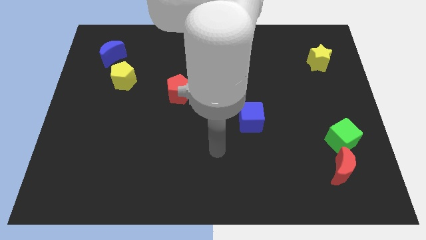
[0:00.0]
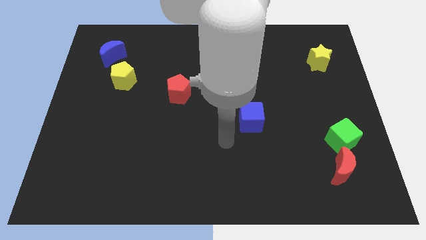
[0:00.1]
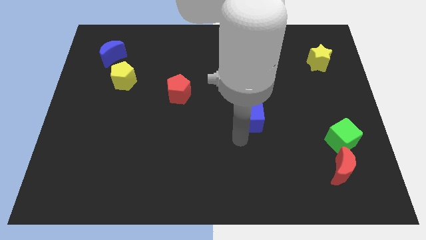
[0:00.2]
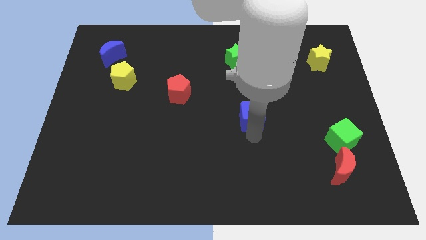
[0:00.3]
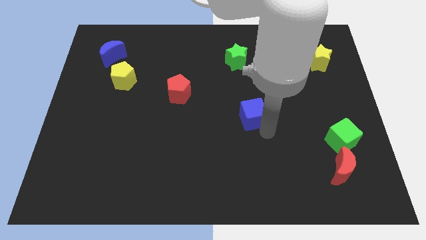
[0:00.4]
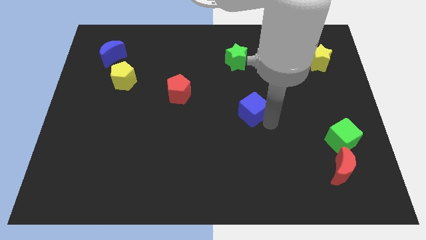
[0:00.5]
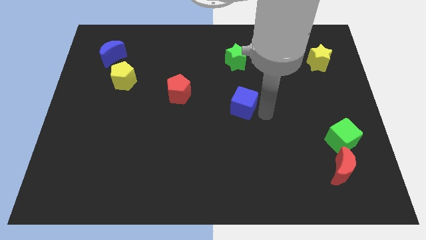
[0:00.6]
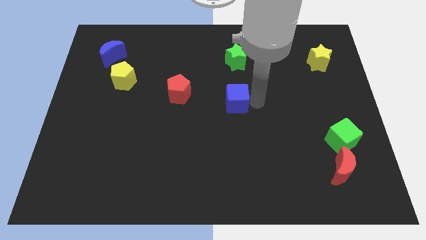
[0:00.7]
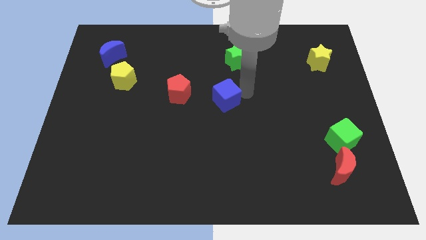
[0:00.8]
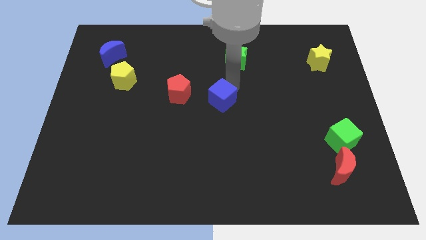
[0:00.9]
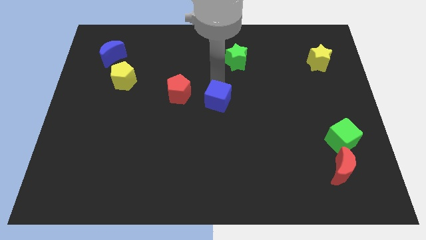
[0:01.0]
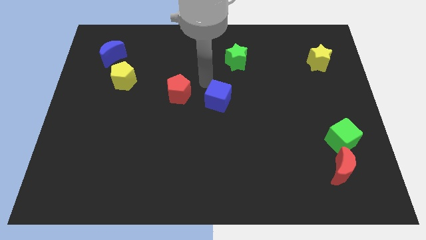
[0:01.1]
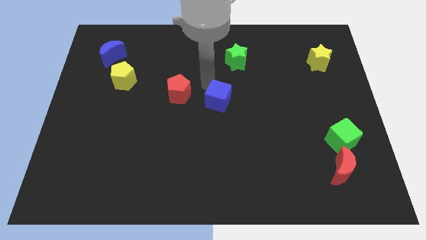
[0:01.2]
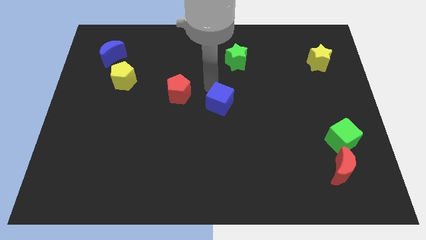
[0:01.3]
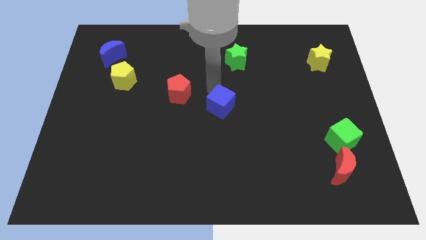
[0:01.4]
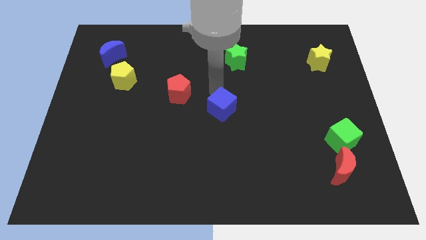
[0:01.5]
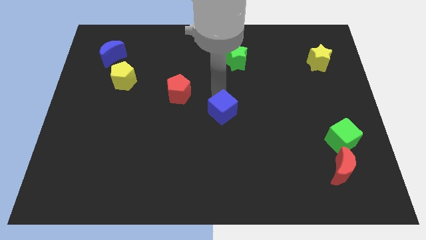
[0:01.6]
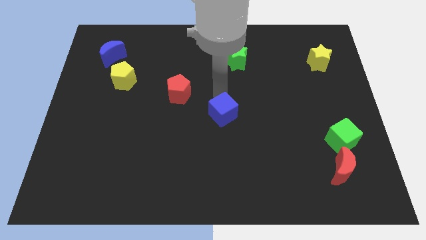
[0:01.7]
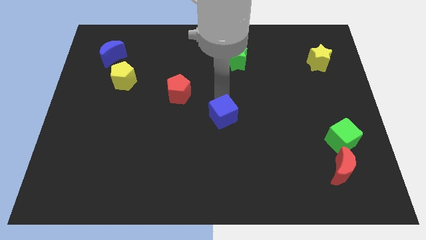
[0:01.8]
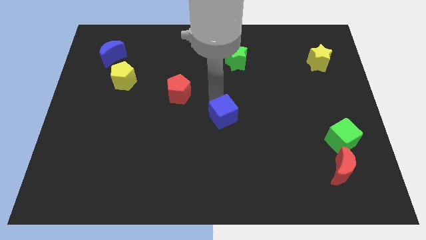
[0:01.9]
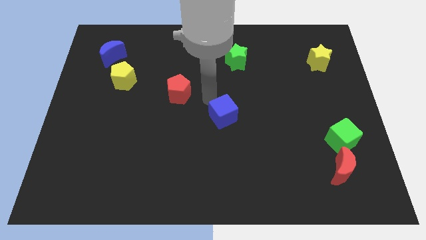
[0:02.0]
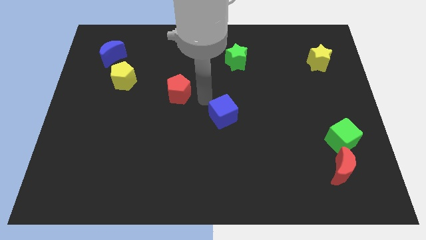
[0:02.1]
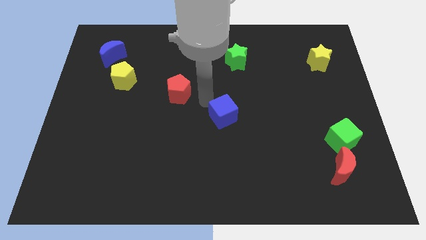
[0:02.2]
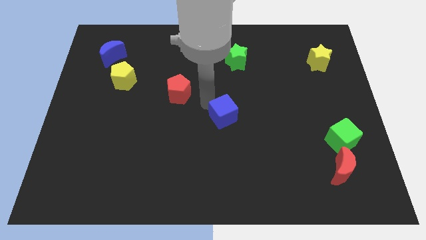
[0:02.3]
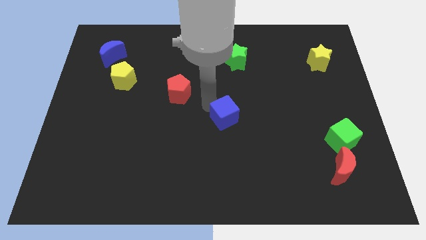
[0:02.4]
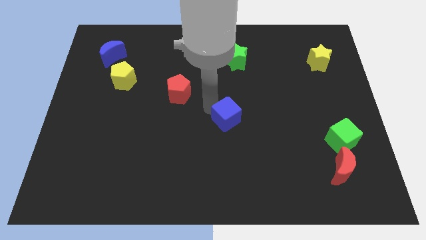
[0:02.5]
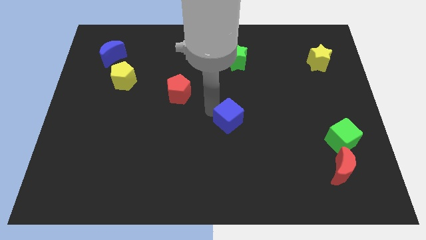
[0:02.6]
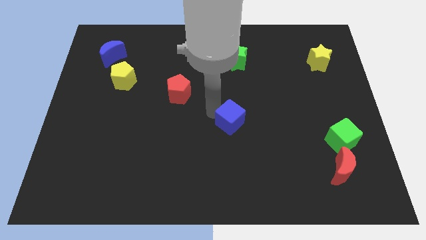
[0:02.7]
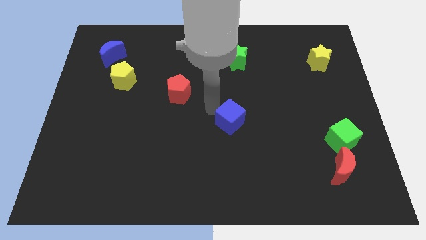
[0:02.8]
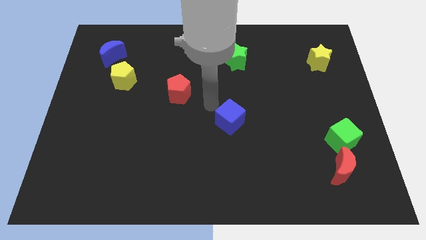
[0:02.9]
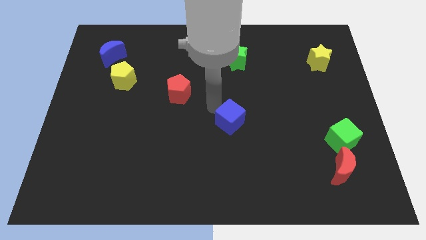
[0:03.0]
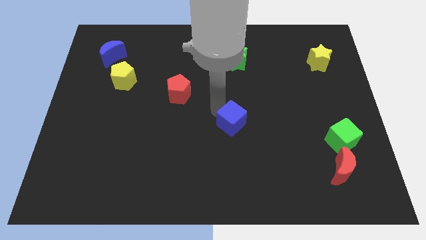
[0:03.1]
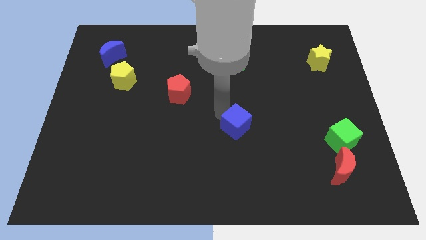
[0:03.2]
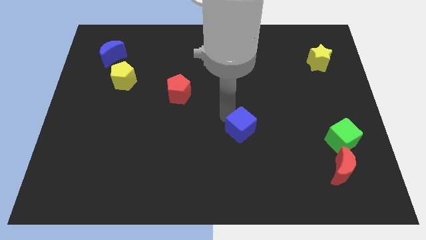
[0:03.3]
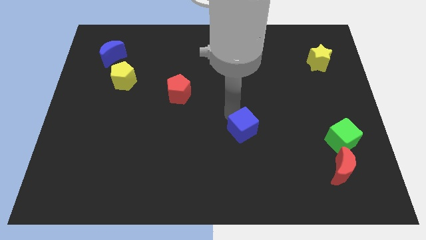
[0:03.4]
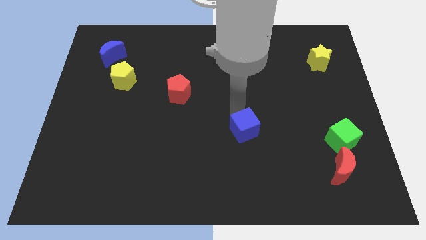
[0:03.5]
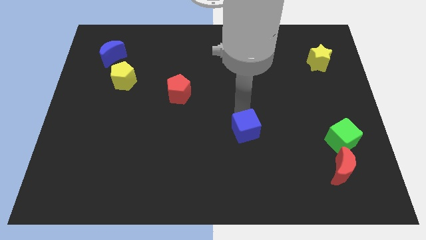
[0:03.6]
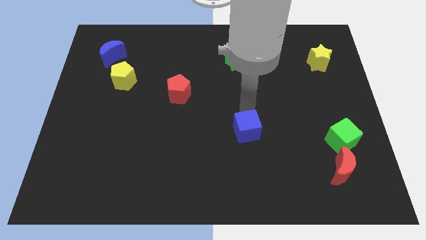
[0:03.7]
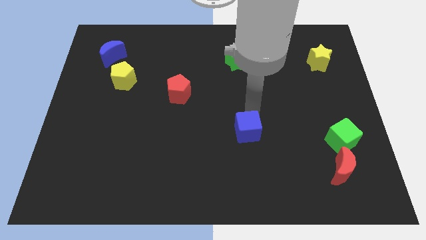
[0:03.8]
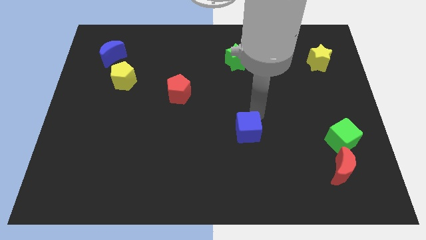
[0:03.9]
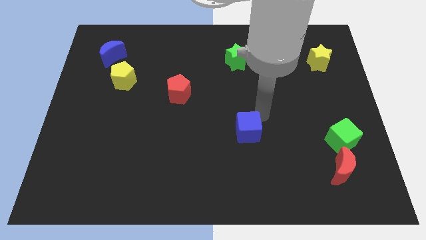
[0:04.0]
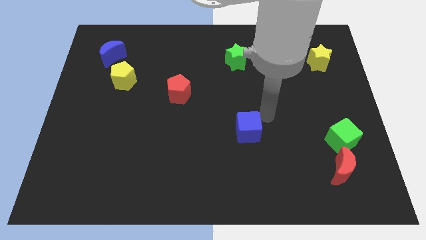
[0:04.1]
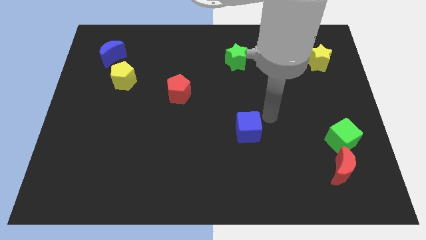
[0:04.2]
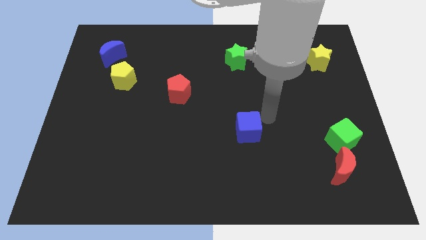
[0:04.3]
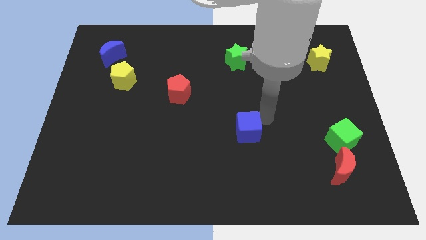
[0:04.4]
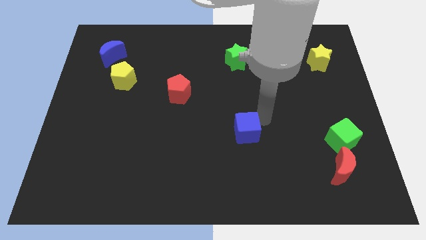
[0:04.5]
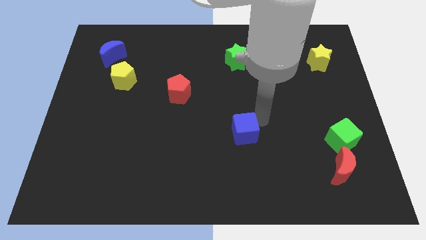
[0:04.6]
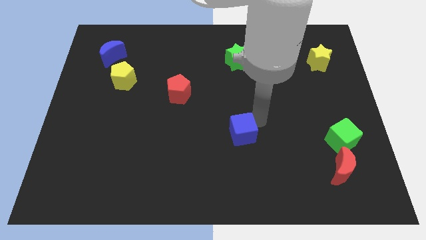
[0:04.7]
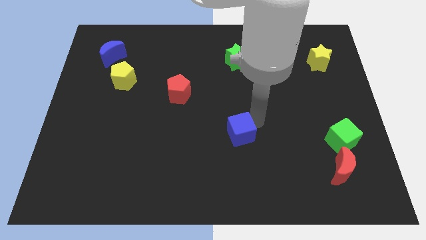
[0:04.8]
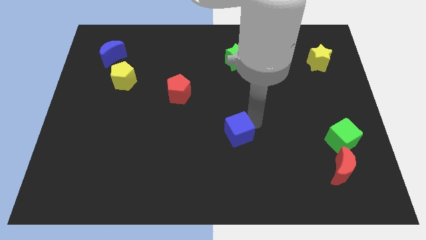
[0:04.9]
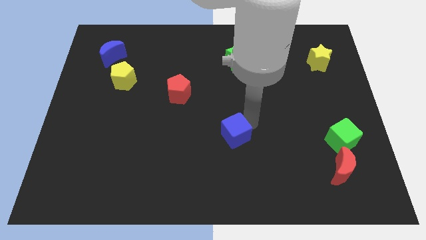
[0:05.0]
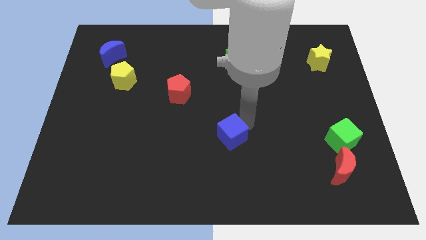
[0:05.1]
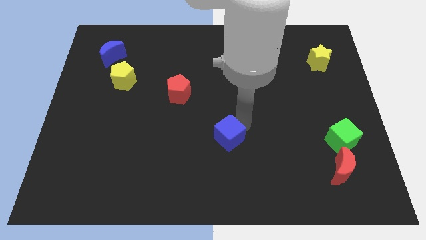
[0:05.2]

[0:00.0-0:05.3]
push the blue cube diagonally downwards and to the left a little bit

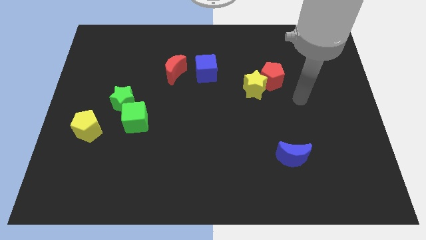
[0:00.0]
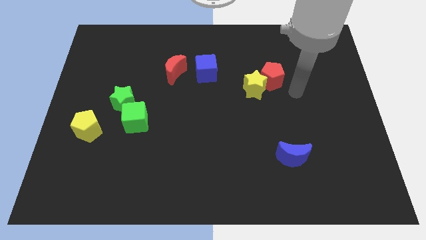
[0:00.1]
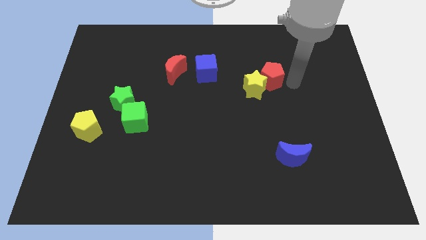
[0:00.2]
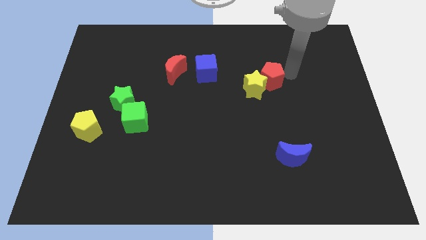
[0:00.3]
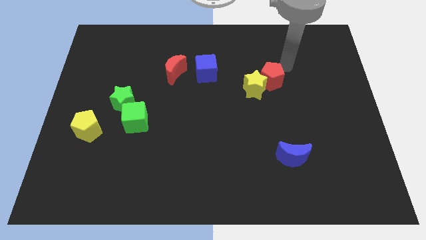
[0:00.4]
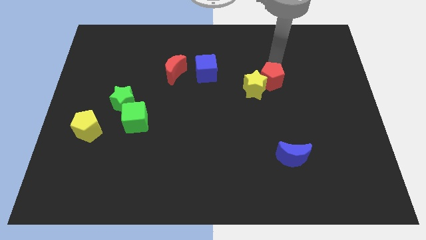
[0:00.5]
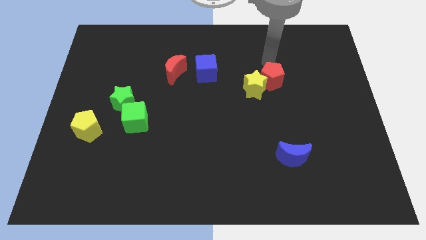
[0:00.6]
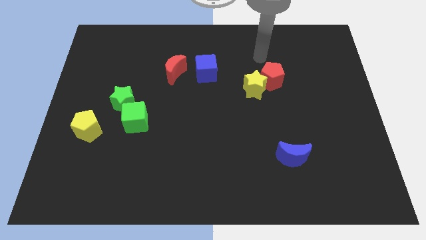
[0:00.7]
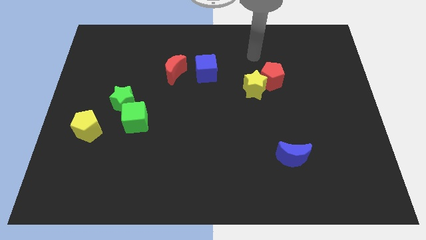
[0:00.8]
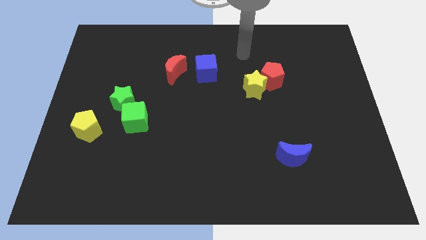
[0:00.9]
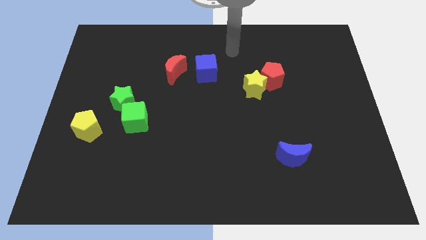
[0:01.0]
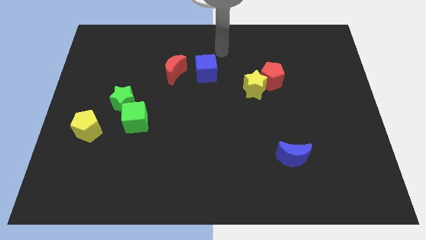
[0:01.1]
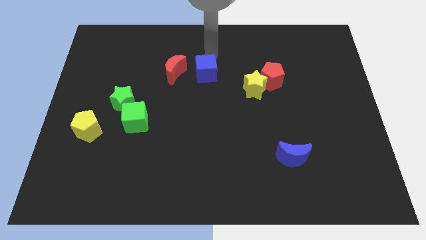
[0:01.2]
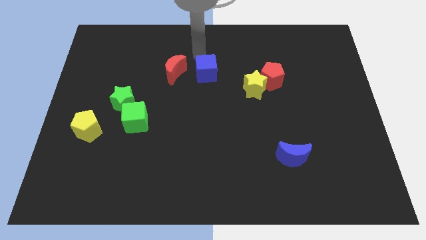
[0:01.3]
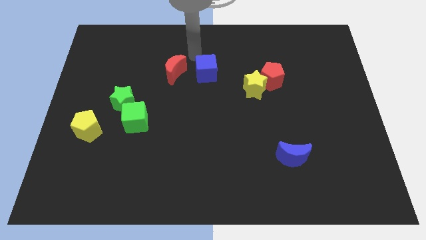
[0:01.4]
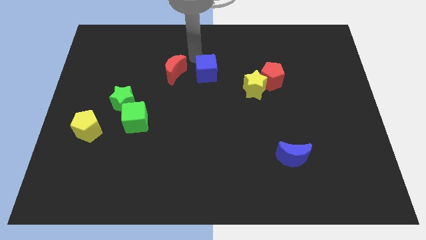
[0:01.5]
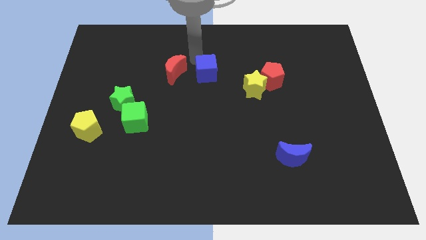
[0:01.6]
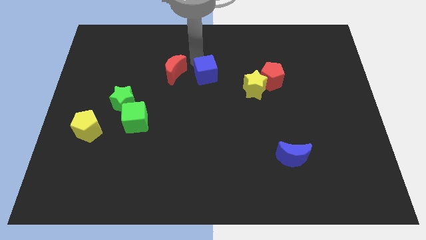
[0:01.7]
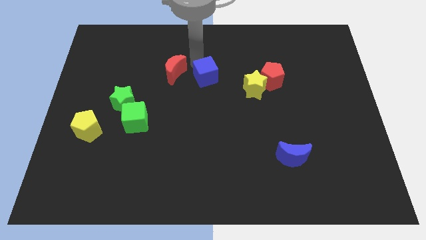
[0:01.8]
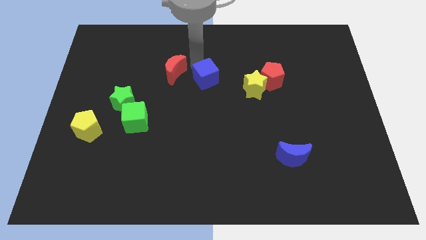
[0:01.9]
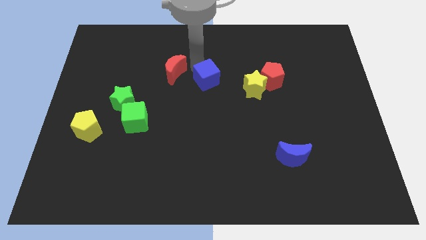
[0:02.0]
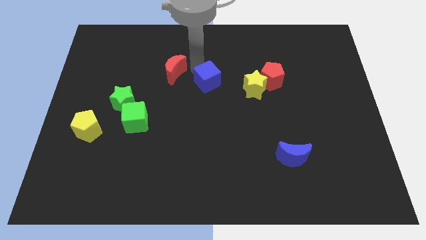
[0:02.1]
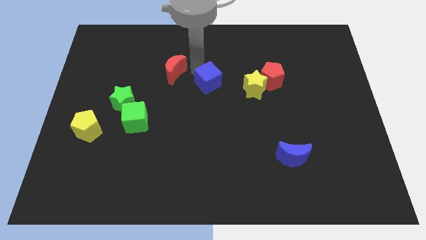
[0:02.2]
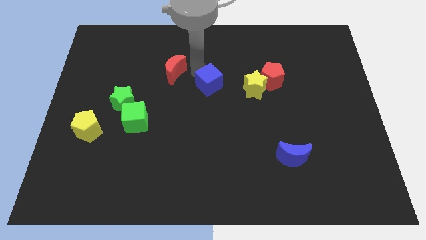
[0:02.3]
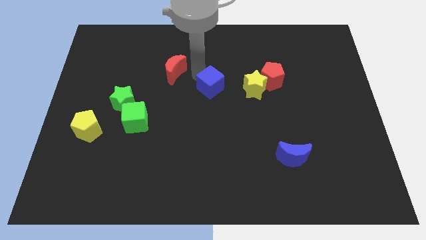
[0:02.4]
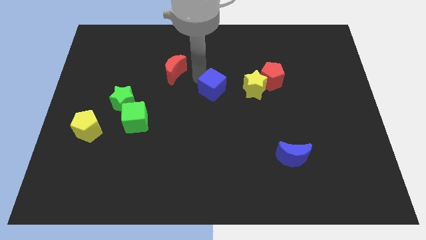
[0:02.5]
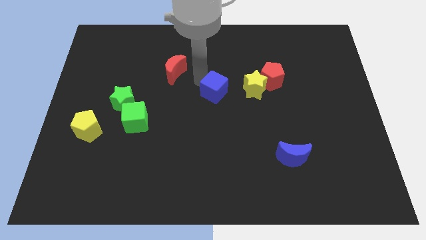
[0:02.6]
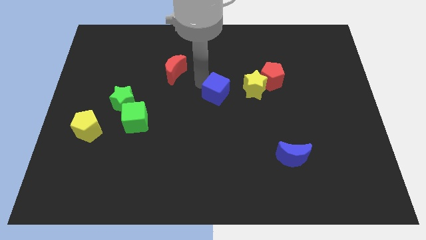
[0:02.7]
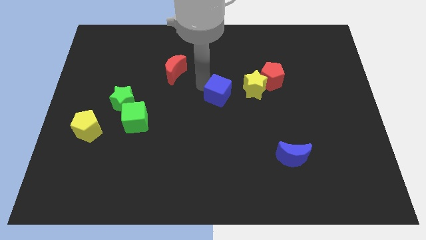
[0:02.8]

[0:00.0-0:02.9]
slightly move the blue cube downwards and to the right diagonally
